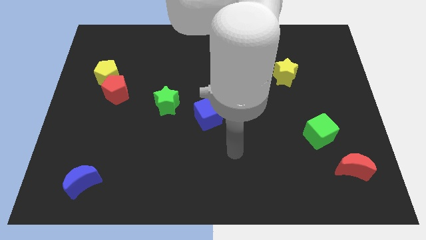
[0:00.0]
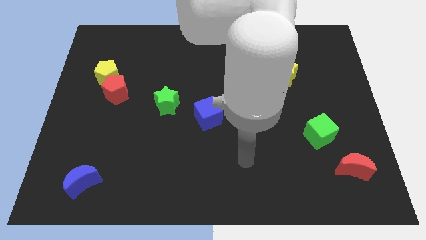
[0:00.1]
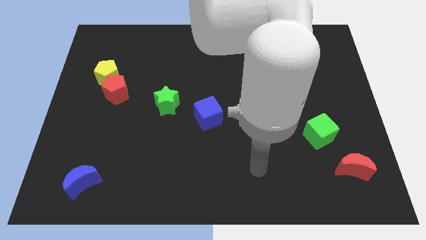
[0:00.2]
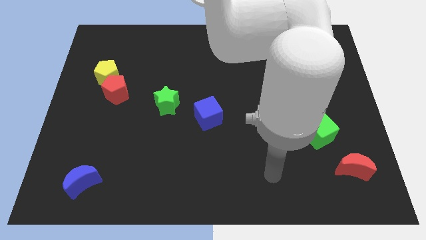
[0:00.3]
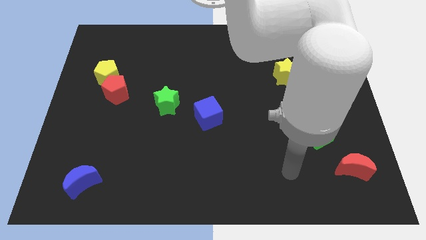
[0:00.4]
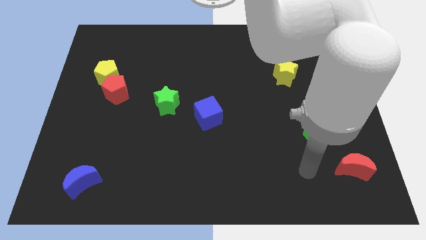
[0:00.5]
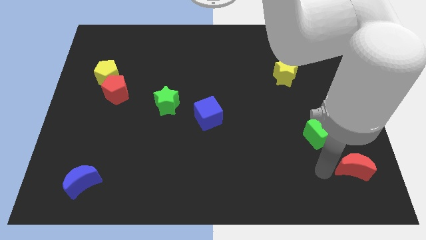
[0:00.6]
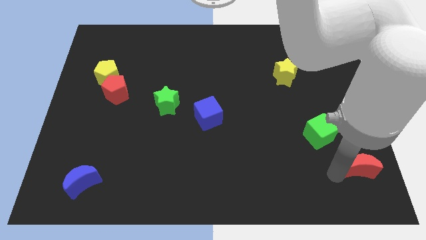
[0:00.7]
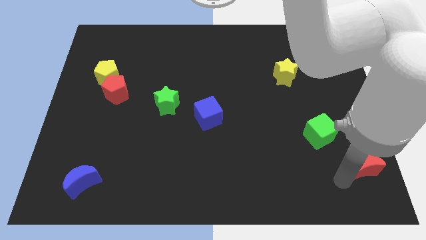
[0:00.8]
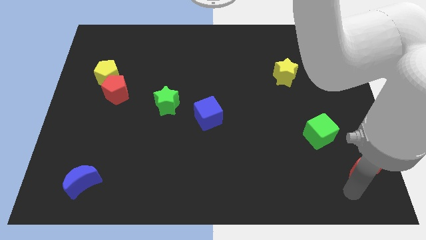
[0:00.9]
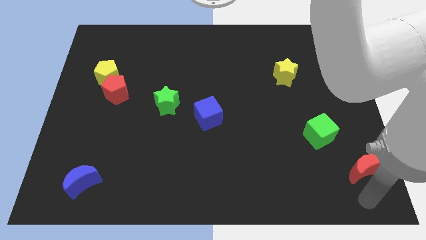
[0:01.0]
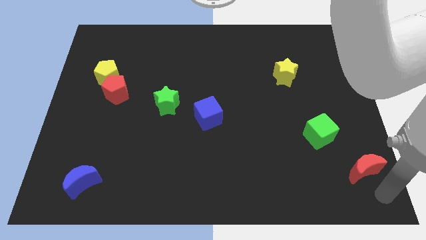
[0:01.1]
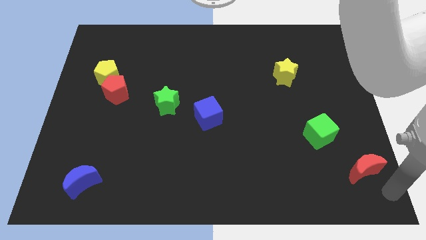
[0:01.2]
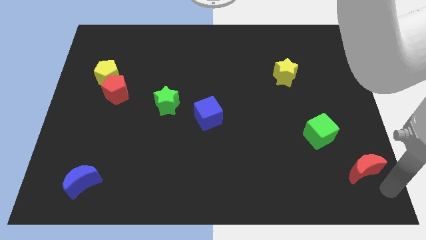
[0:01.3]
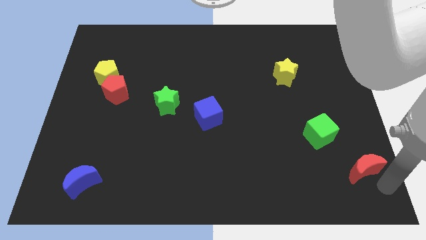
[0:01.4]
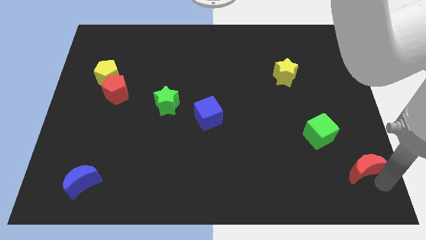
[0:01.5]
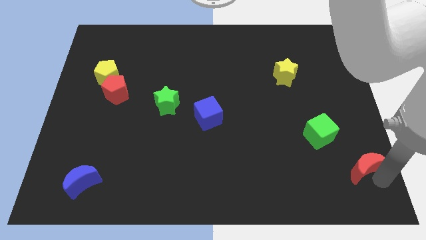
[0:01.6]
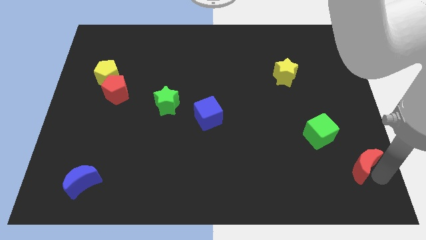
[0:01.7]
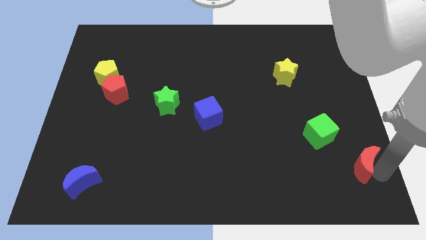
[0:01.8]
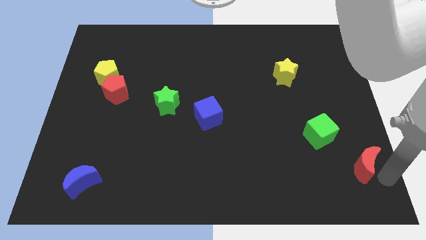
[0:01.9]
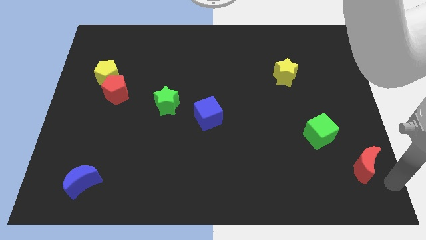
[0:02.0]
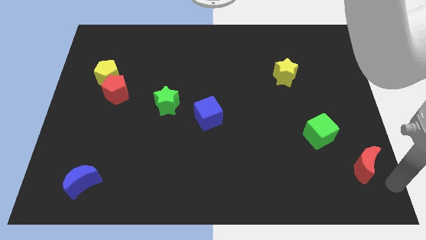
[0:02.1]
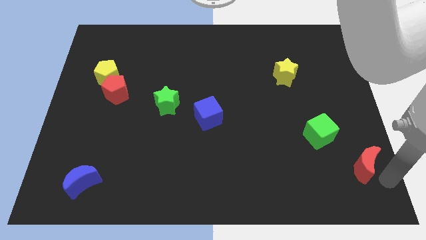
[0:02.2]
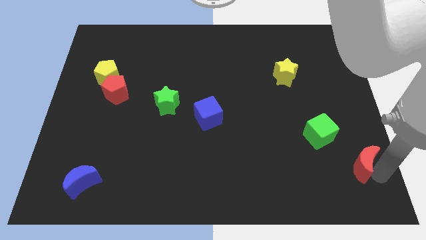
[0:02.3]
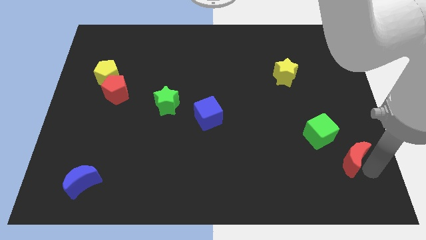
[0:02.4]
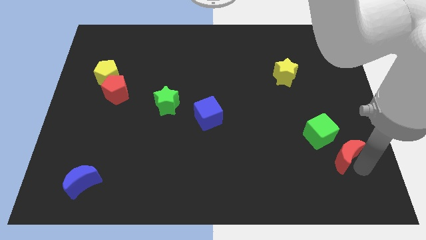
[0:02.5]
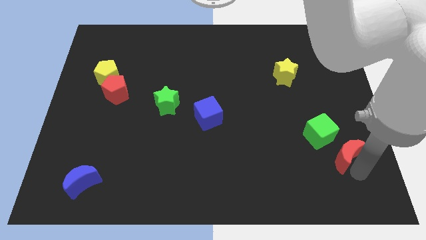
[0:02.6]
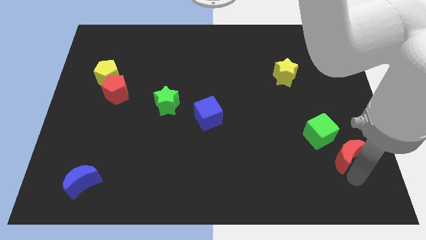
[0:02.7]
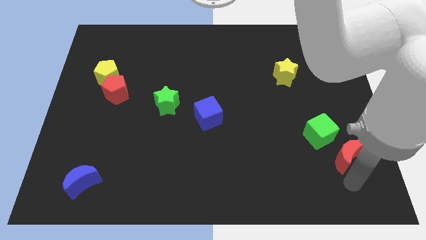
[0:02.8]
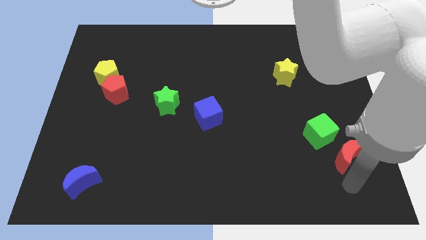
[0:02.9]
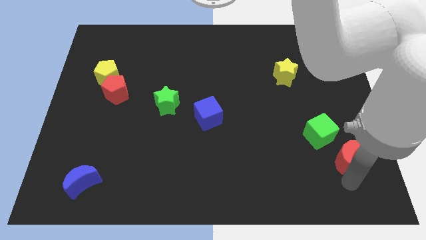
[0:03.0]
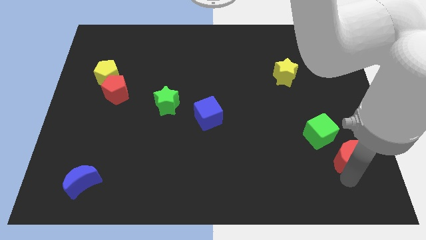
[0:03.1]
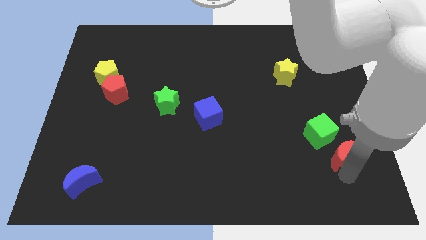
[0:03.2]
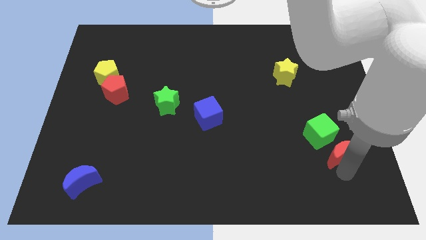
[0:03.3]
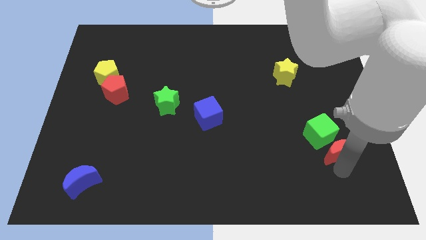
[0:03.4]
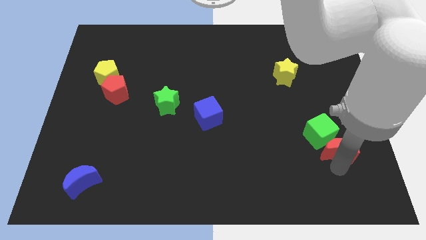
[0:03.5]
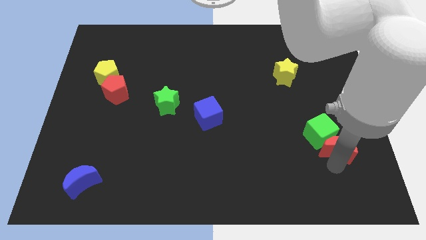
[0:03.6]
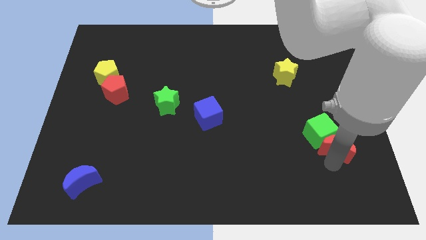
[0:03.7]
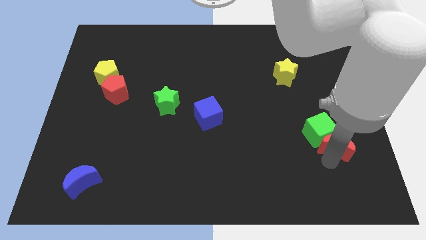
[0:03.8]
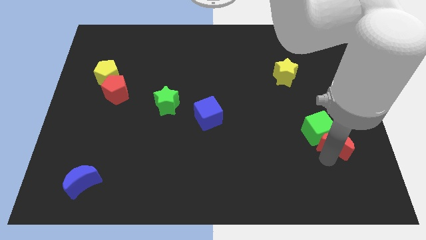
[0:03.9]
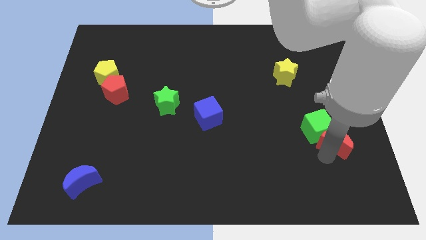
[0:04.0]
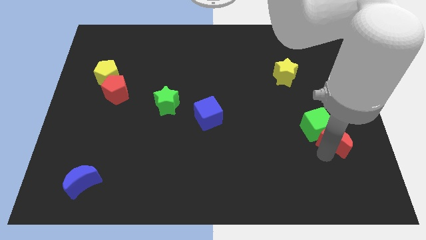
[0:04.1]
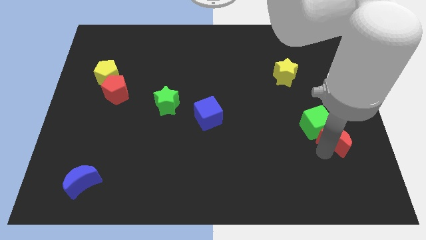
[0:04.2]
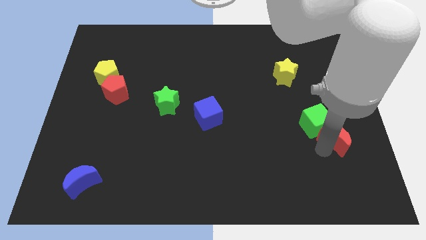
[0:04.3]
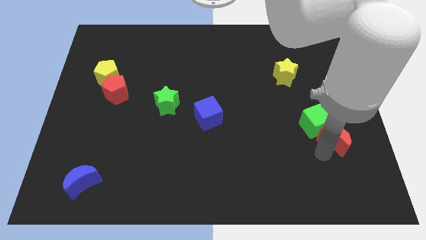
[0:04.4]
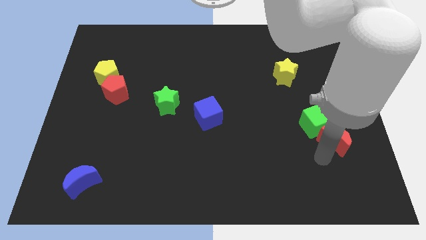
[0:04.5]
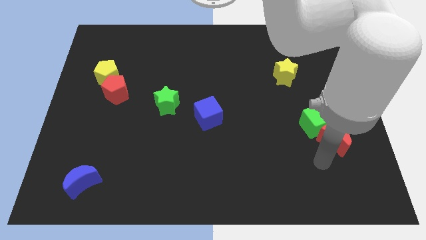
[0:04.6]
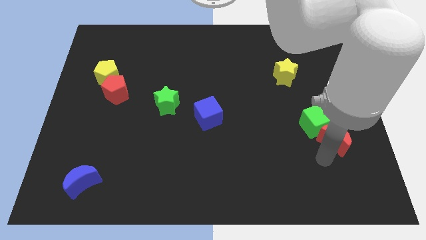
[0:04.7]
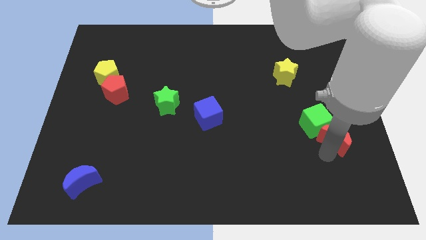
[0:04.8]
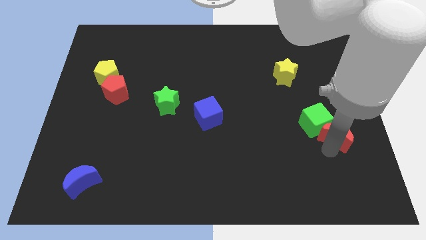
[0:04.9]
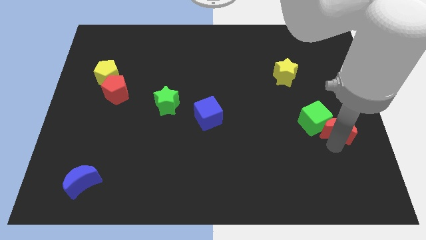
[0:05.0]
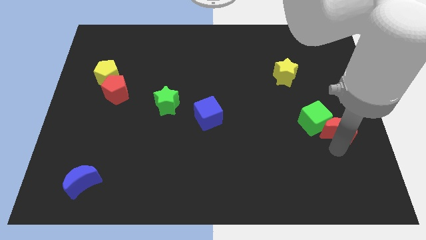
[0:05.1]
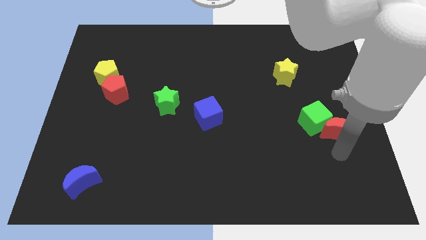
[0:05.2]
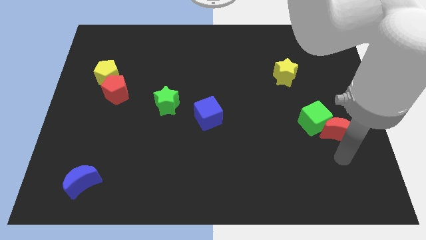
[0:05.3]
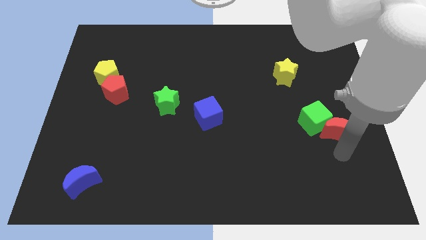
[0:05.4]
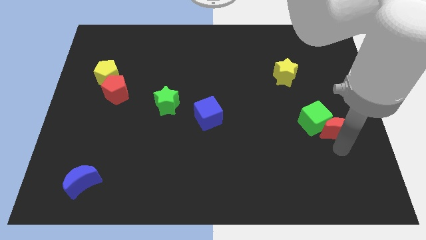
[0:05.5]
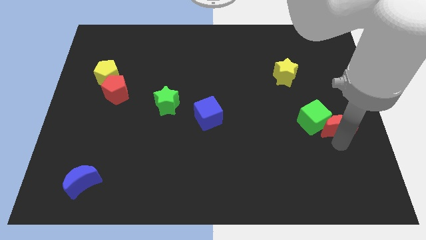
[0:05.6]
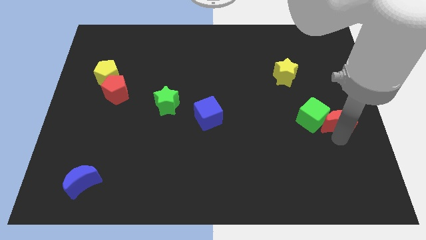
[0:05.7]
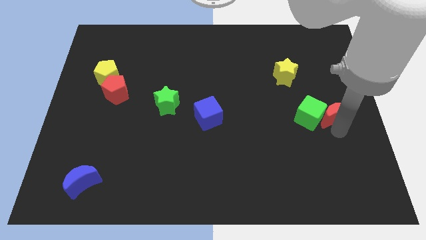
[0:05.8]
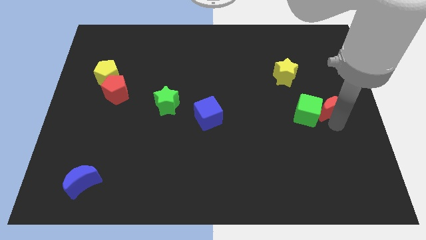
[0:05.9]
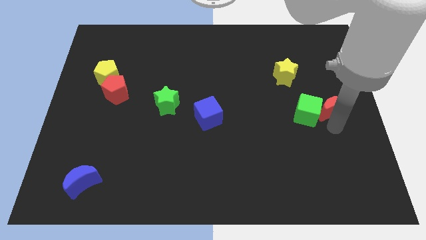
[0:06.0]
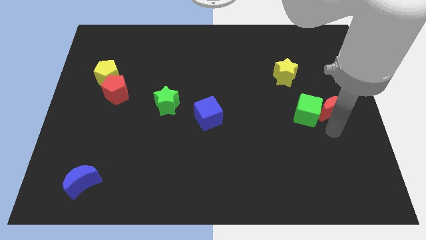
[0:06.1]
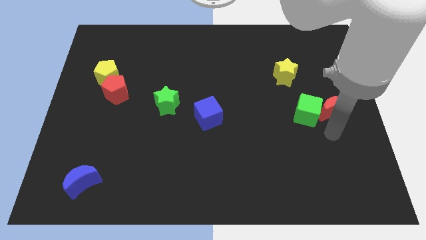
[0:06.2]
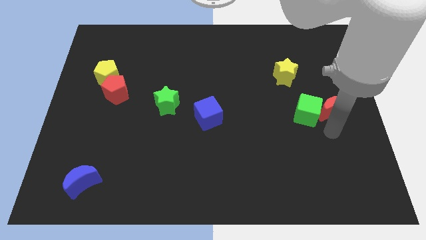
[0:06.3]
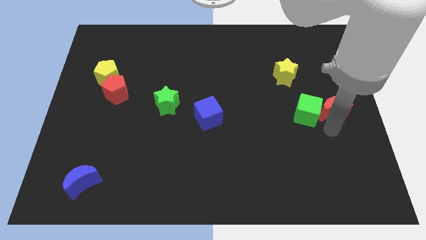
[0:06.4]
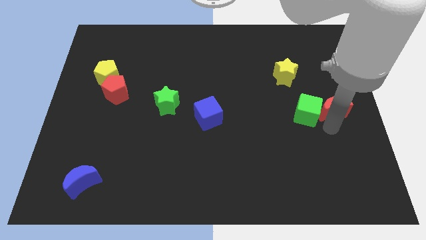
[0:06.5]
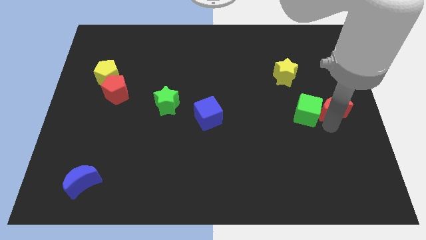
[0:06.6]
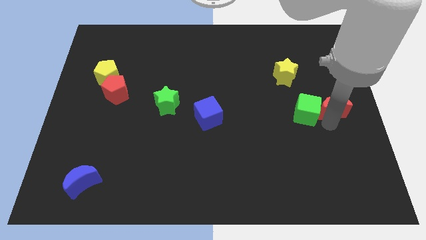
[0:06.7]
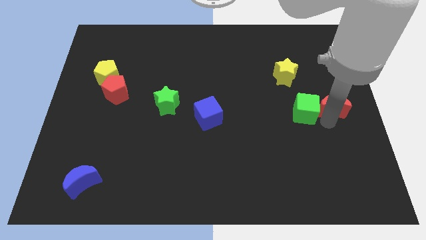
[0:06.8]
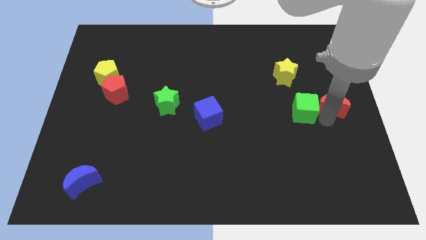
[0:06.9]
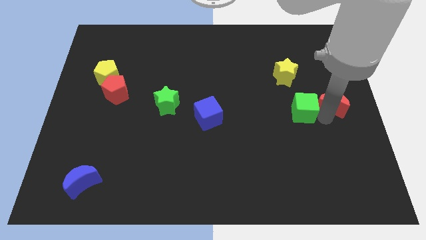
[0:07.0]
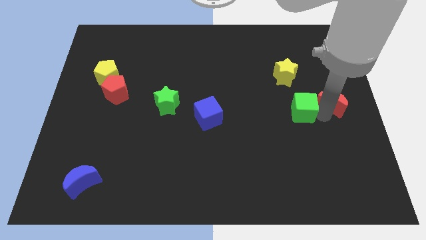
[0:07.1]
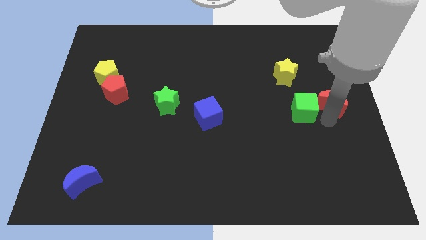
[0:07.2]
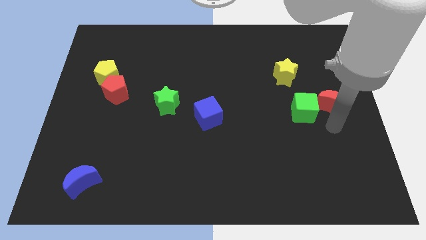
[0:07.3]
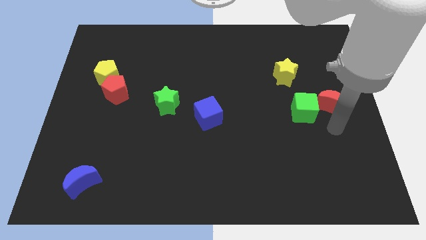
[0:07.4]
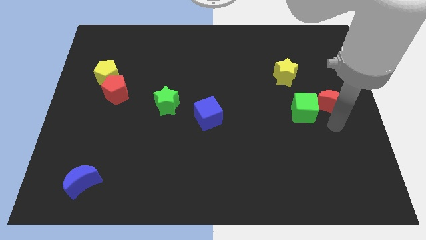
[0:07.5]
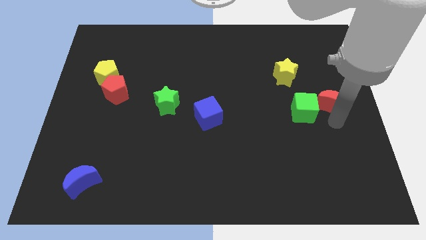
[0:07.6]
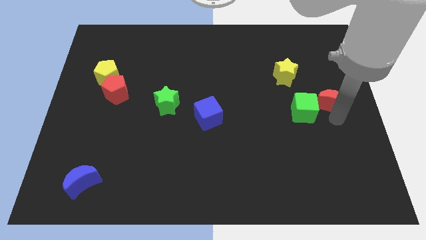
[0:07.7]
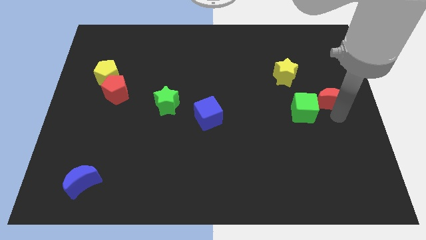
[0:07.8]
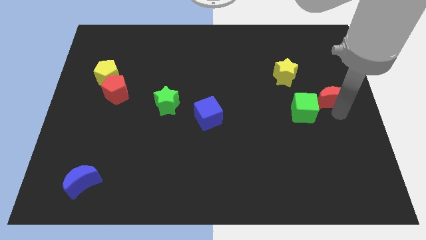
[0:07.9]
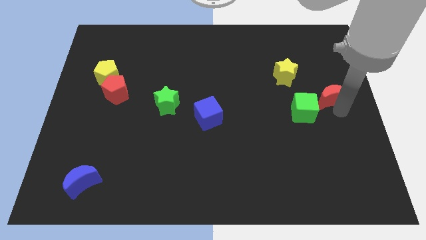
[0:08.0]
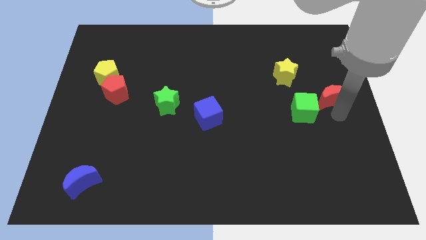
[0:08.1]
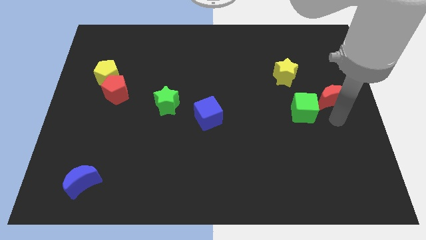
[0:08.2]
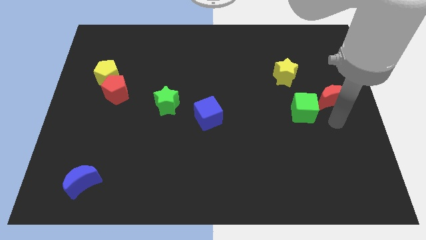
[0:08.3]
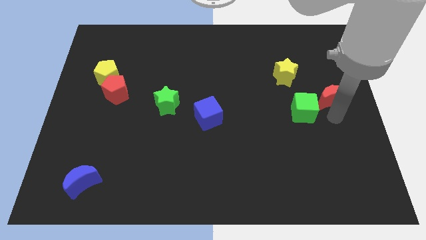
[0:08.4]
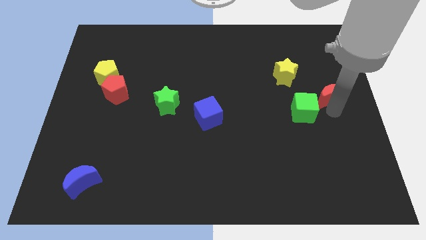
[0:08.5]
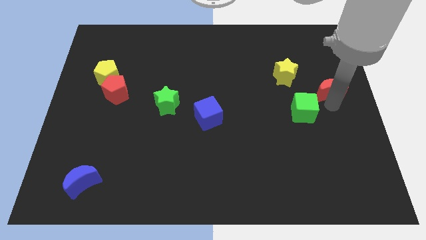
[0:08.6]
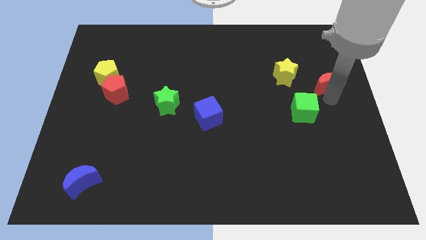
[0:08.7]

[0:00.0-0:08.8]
push the red moon to the right of the yellow star
